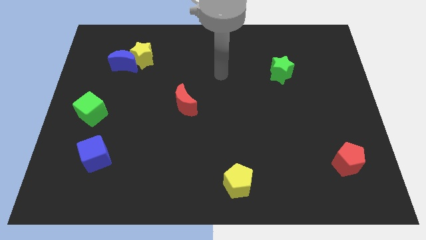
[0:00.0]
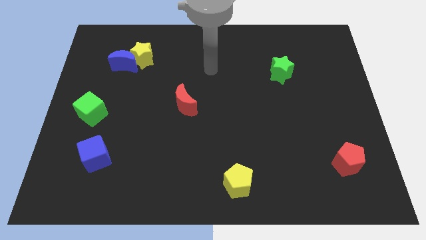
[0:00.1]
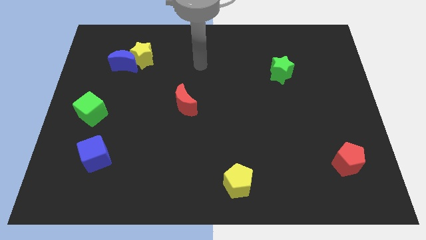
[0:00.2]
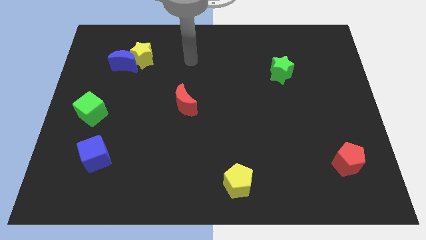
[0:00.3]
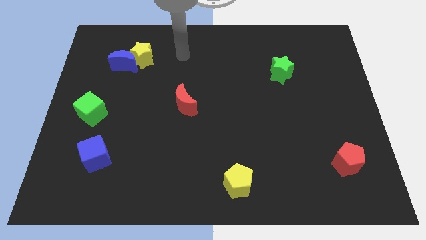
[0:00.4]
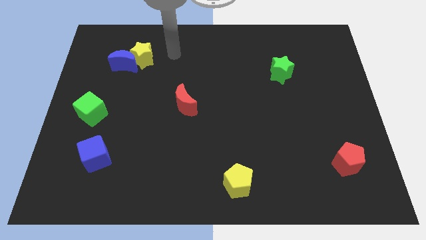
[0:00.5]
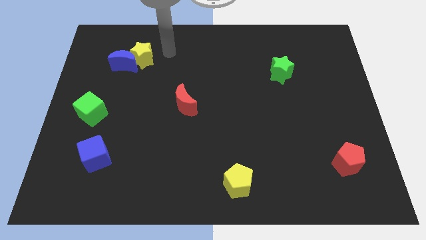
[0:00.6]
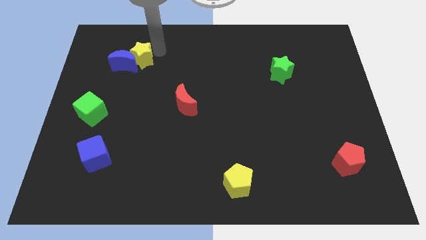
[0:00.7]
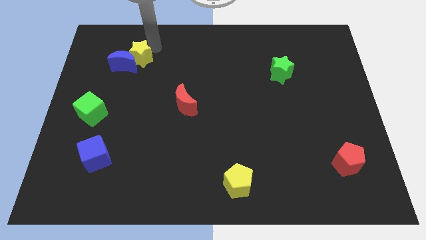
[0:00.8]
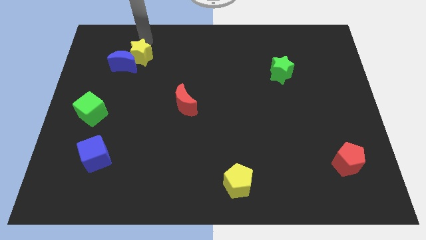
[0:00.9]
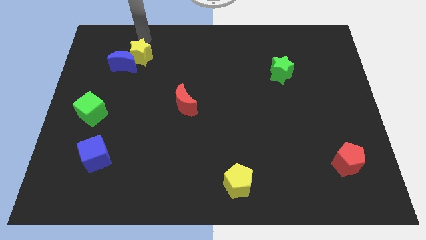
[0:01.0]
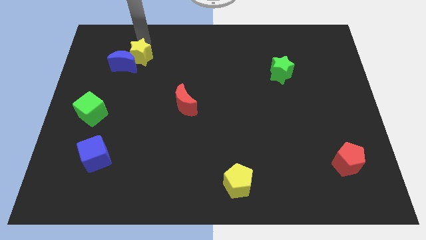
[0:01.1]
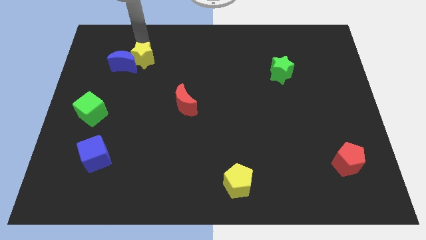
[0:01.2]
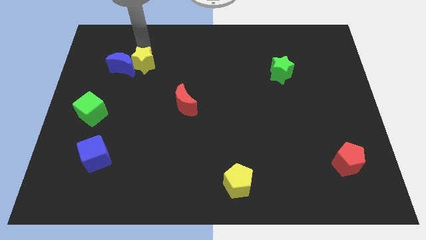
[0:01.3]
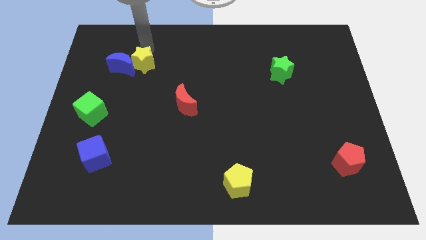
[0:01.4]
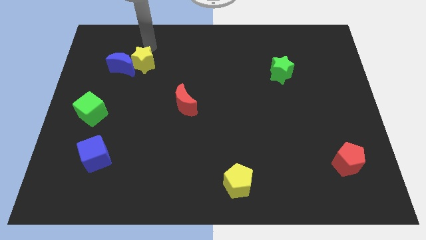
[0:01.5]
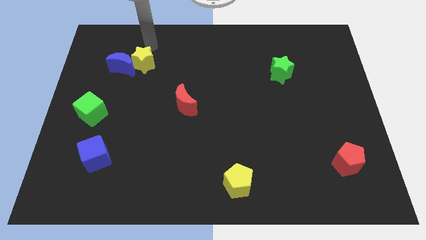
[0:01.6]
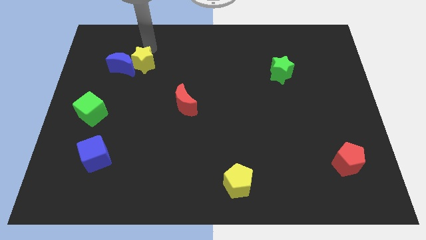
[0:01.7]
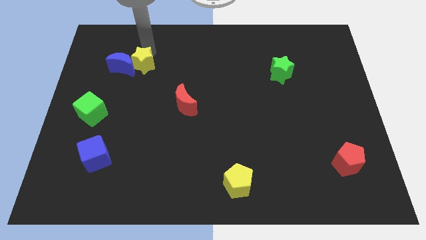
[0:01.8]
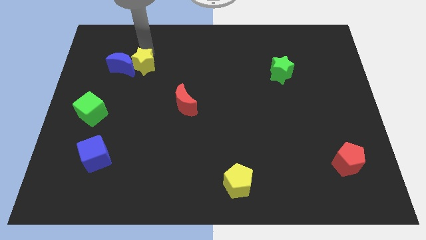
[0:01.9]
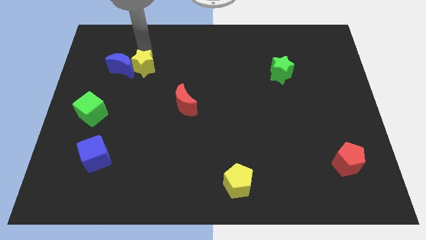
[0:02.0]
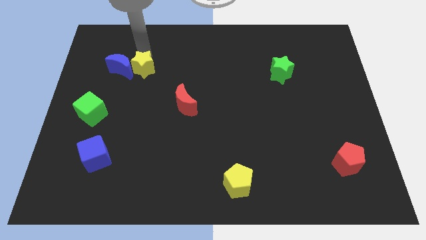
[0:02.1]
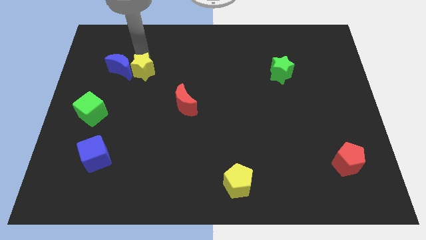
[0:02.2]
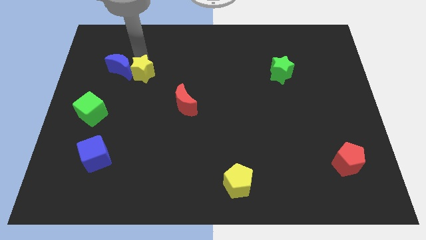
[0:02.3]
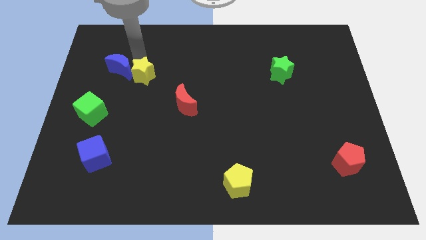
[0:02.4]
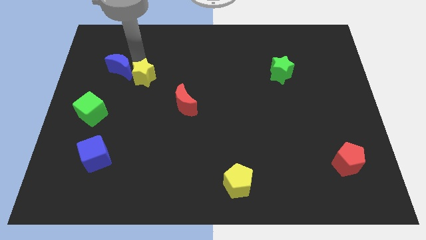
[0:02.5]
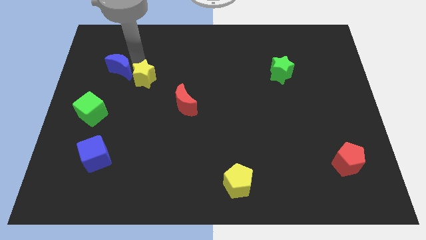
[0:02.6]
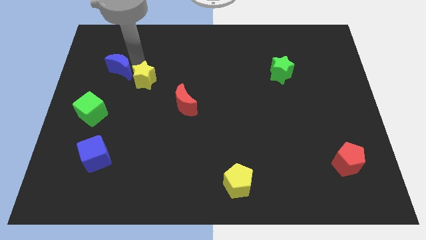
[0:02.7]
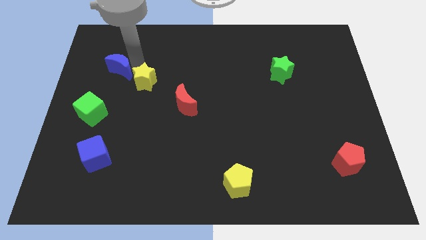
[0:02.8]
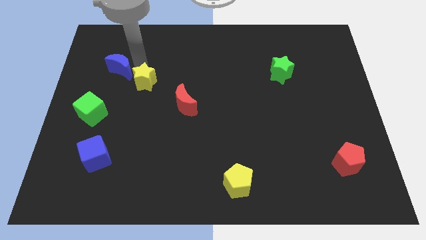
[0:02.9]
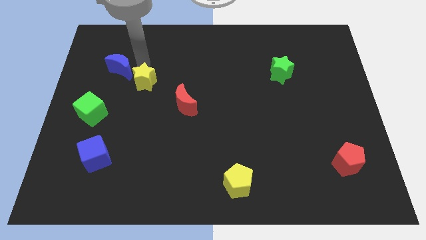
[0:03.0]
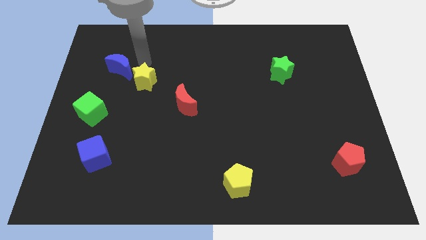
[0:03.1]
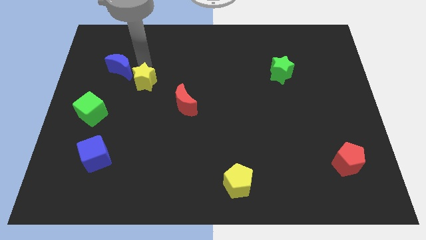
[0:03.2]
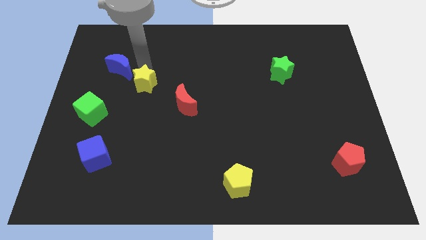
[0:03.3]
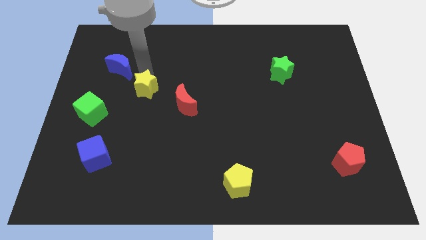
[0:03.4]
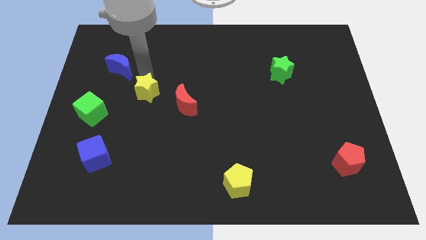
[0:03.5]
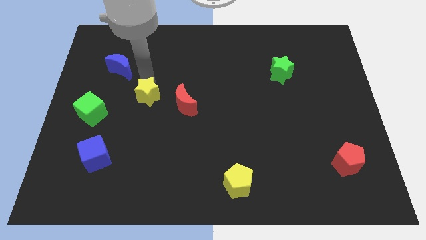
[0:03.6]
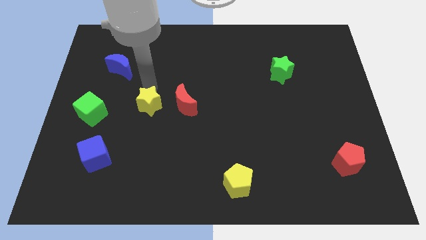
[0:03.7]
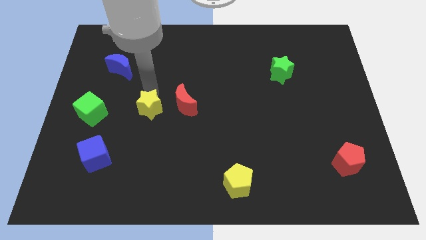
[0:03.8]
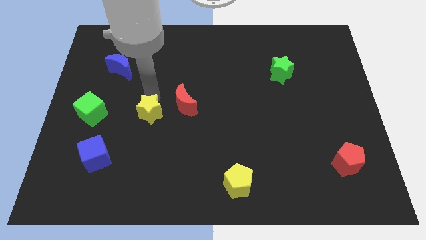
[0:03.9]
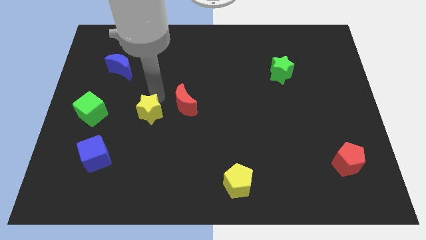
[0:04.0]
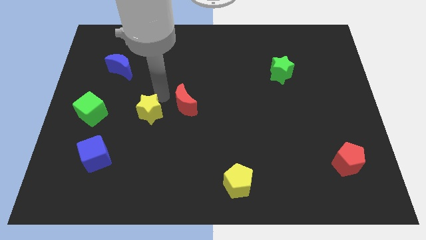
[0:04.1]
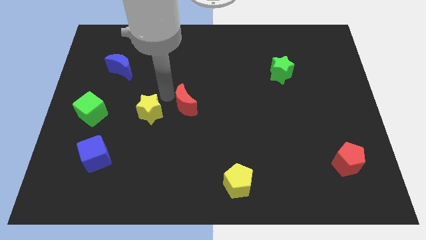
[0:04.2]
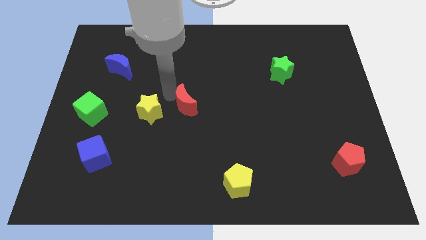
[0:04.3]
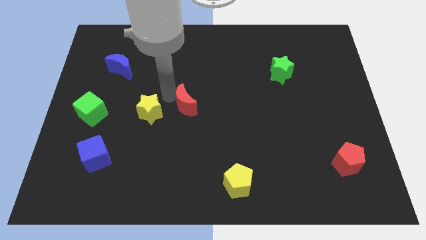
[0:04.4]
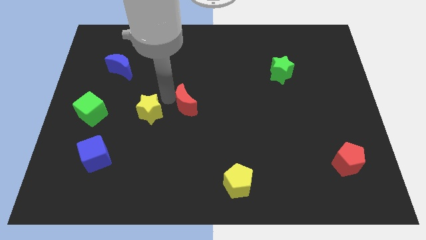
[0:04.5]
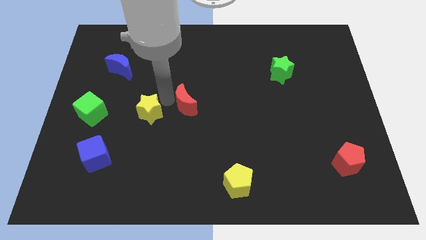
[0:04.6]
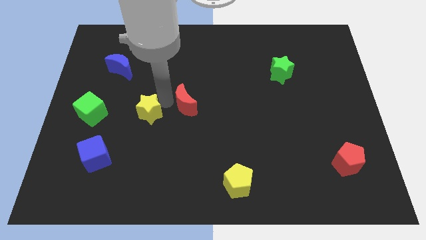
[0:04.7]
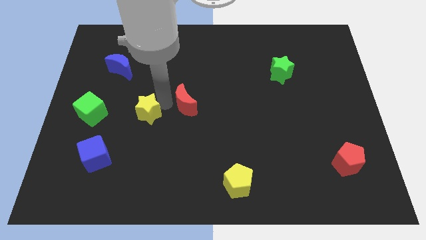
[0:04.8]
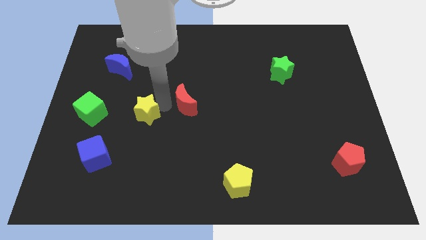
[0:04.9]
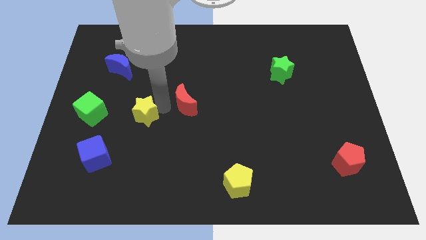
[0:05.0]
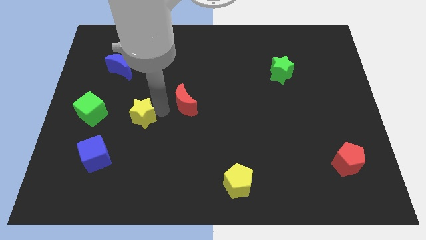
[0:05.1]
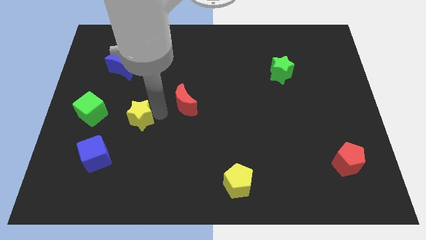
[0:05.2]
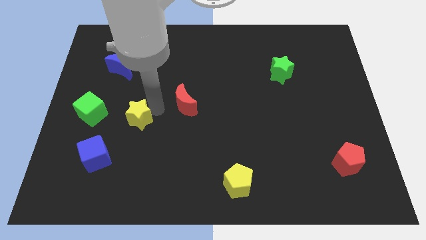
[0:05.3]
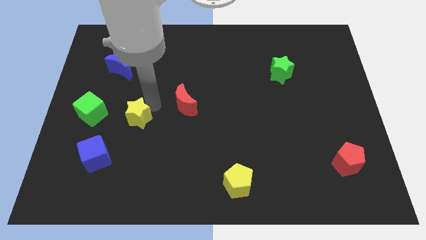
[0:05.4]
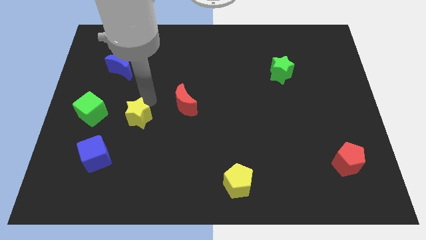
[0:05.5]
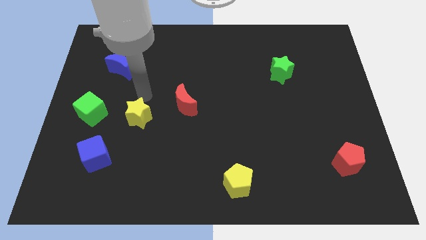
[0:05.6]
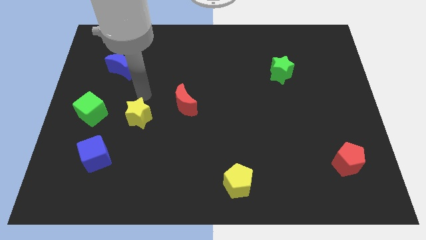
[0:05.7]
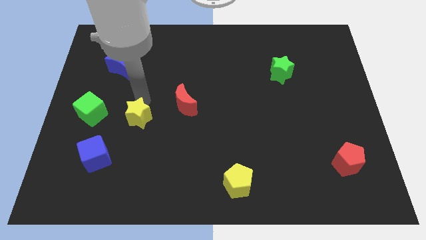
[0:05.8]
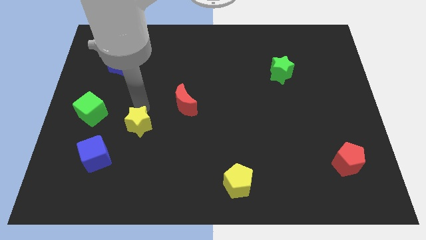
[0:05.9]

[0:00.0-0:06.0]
move the yellow star down

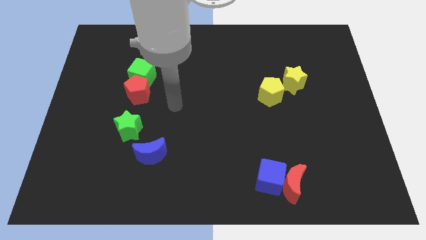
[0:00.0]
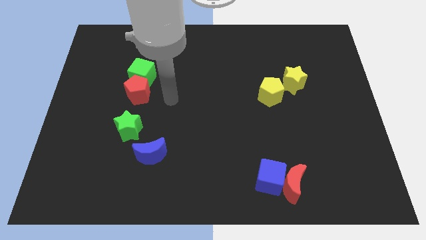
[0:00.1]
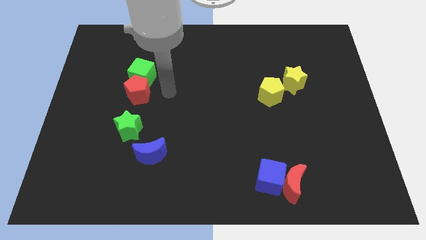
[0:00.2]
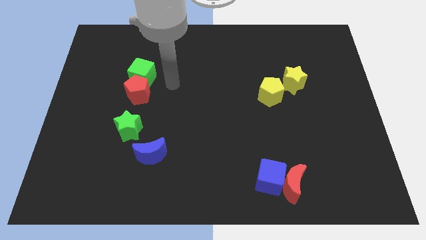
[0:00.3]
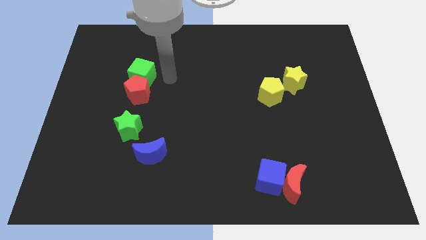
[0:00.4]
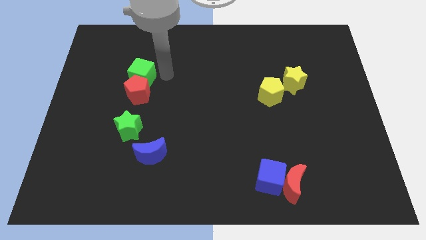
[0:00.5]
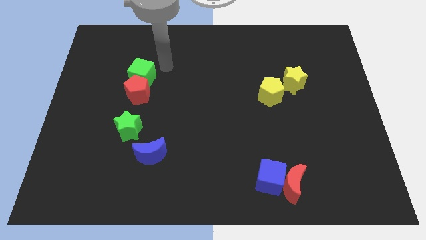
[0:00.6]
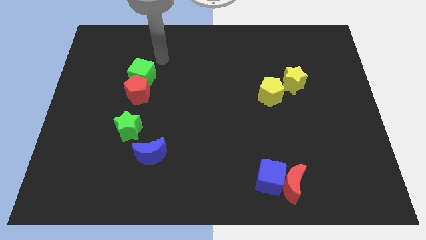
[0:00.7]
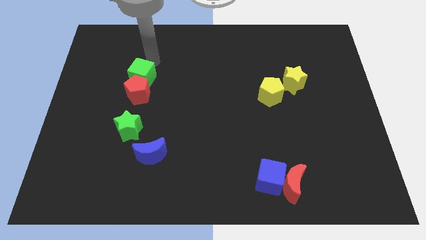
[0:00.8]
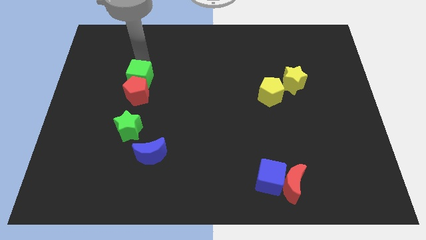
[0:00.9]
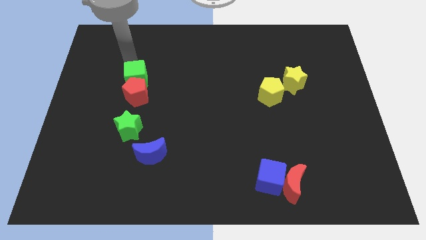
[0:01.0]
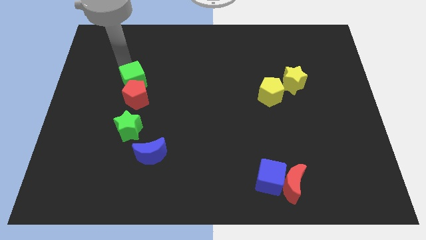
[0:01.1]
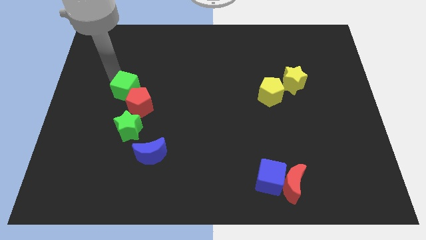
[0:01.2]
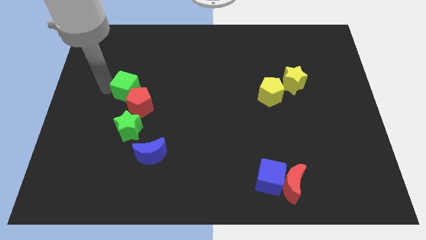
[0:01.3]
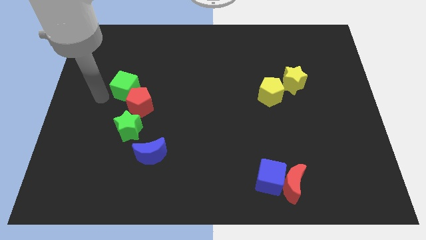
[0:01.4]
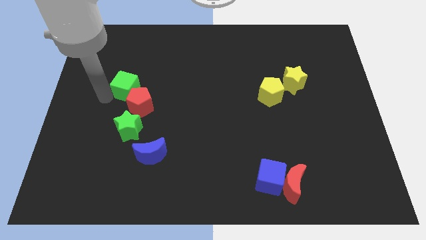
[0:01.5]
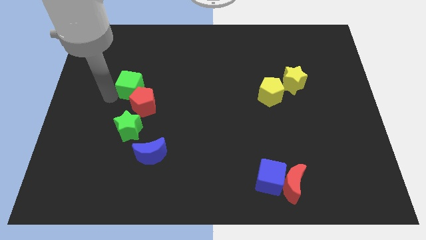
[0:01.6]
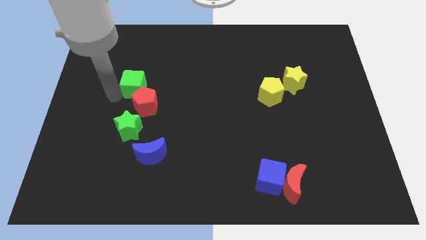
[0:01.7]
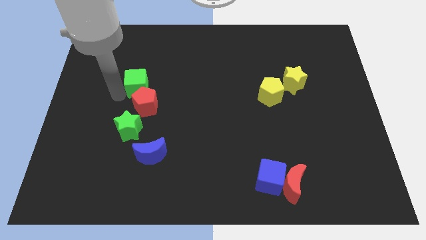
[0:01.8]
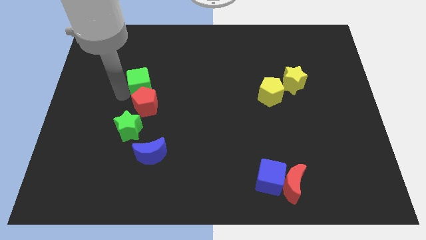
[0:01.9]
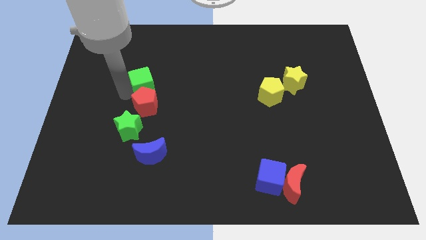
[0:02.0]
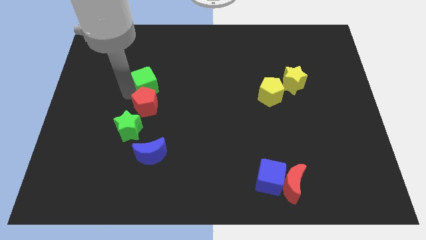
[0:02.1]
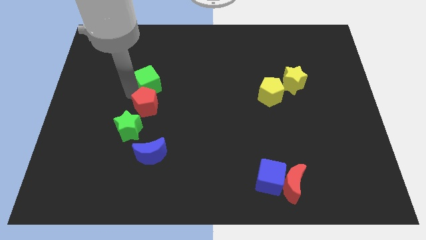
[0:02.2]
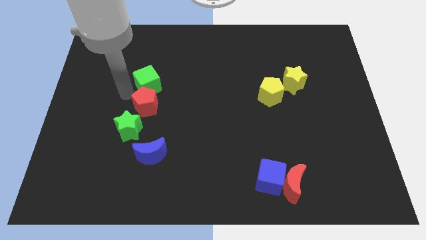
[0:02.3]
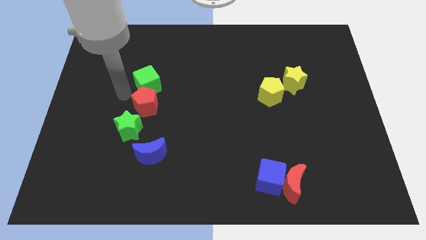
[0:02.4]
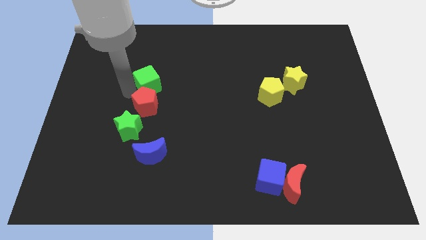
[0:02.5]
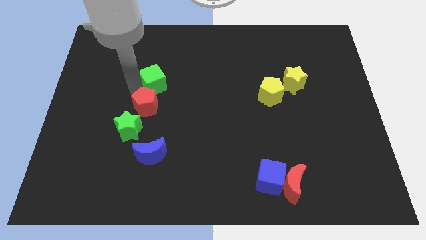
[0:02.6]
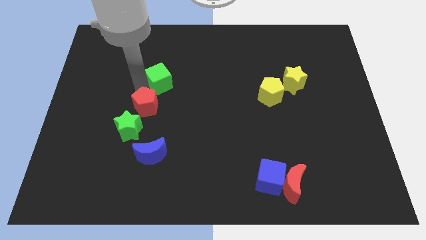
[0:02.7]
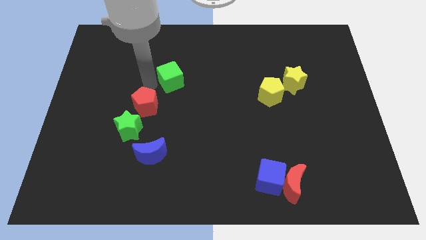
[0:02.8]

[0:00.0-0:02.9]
push the green cube to the right somewhat
